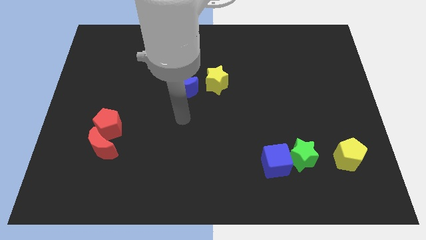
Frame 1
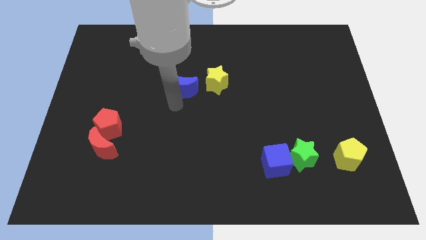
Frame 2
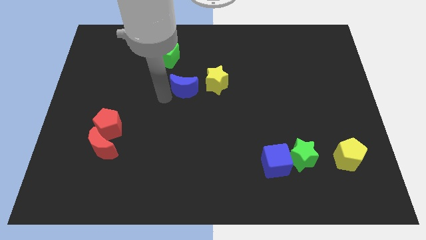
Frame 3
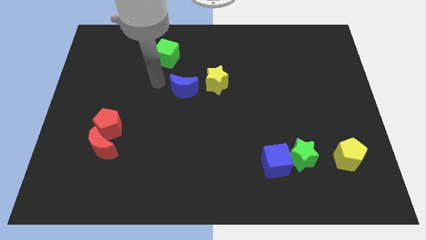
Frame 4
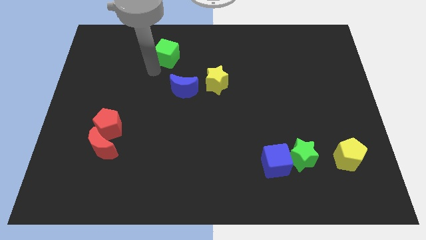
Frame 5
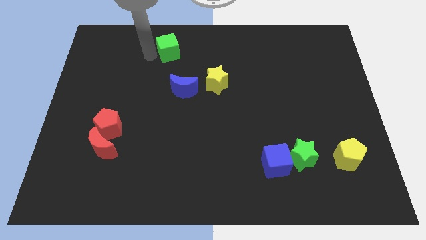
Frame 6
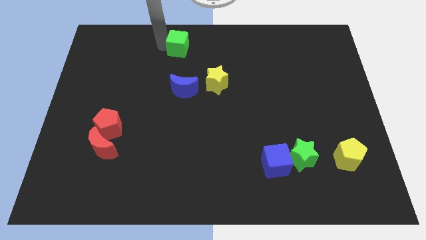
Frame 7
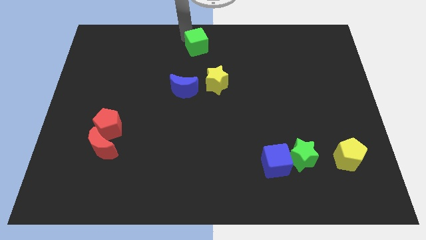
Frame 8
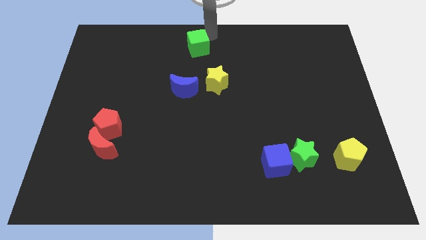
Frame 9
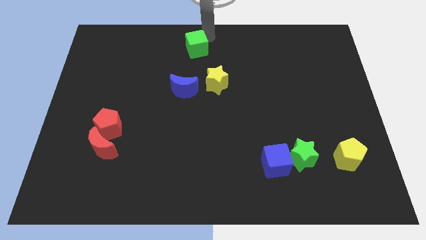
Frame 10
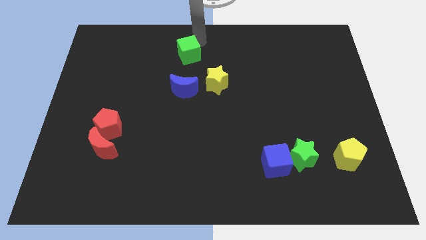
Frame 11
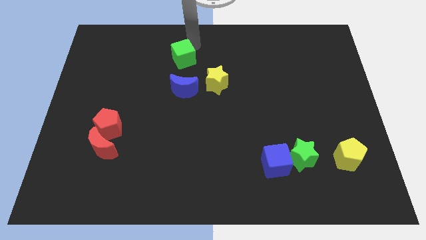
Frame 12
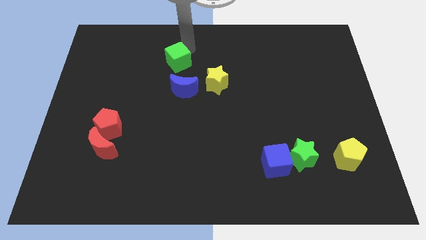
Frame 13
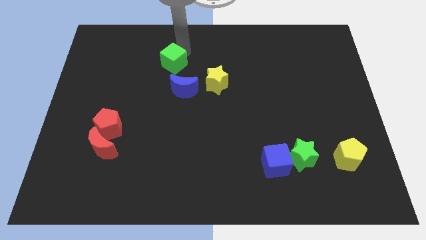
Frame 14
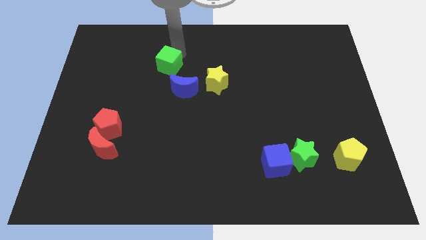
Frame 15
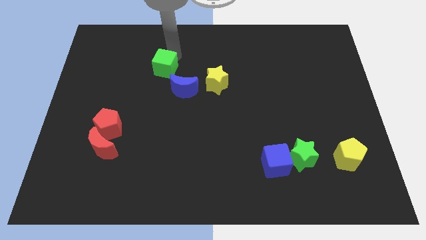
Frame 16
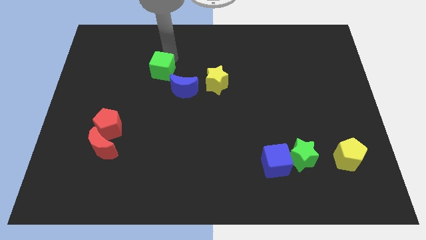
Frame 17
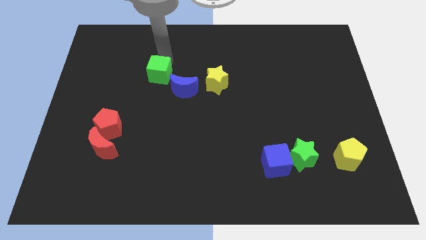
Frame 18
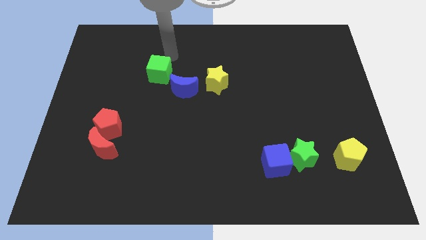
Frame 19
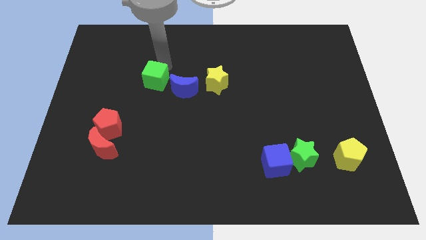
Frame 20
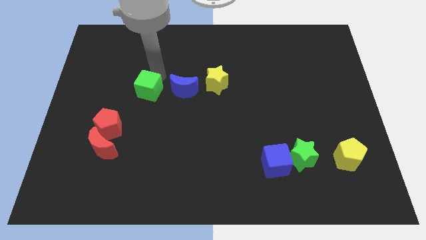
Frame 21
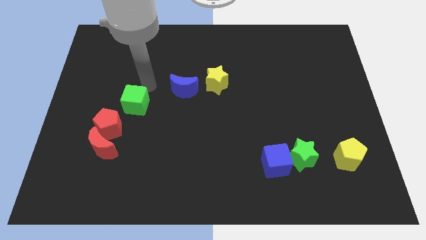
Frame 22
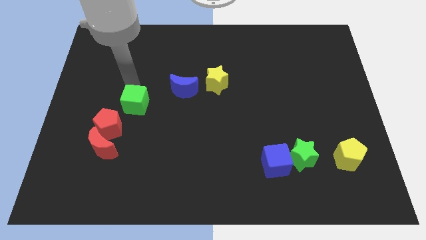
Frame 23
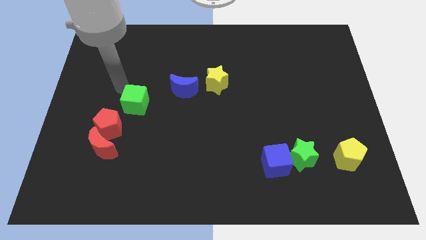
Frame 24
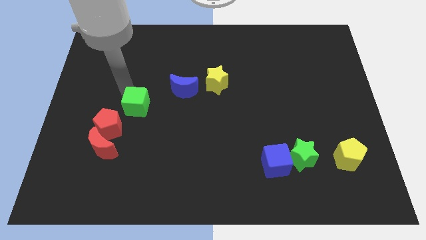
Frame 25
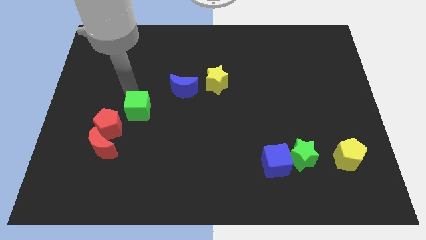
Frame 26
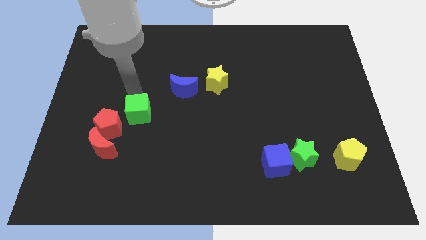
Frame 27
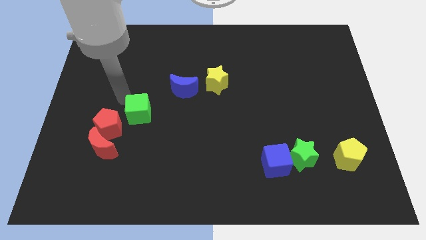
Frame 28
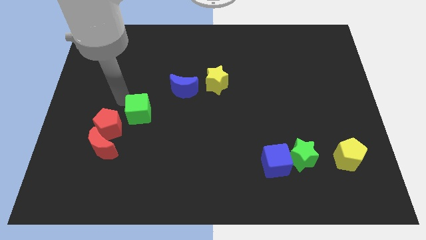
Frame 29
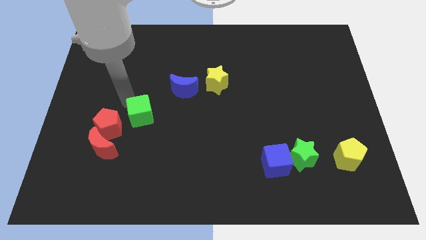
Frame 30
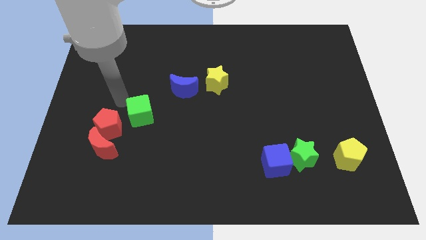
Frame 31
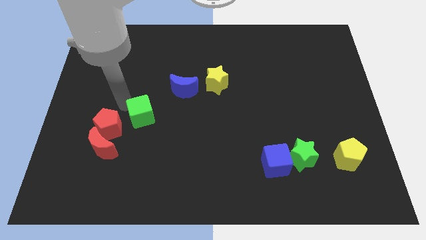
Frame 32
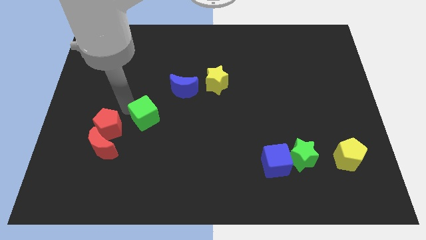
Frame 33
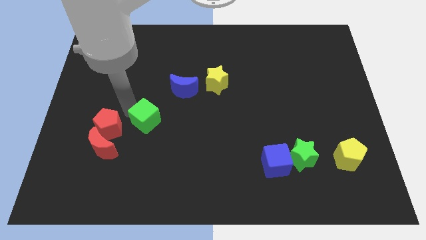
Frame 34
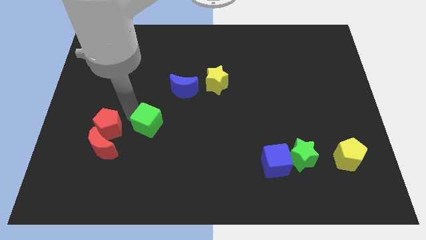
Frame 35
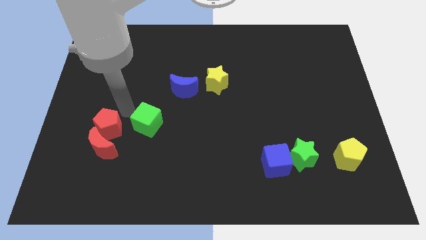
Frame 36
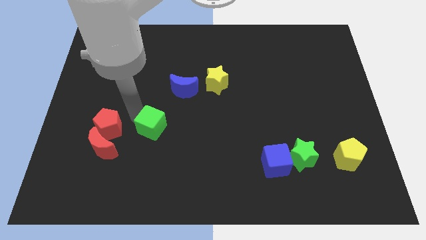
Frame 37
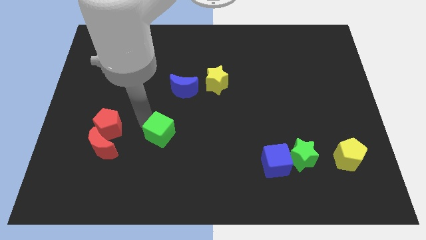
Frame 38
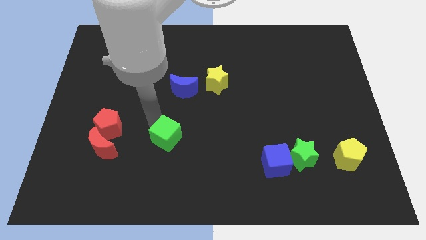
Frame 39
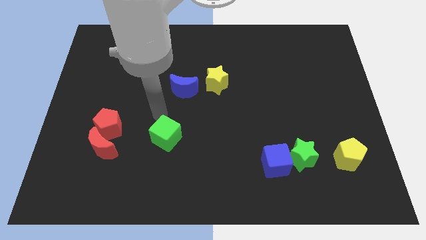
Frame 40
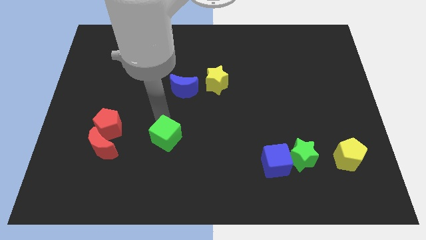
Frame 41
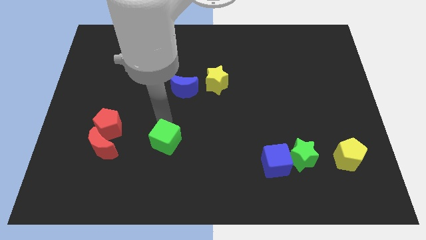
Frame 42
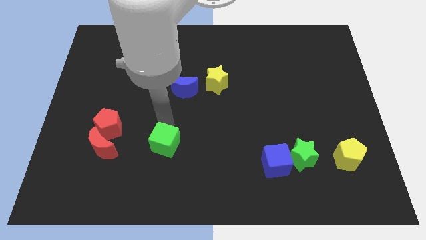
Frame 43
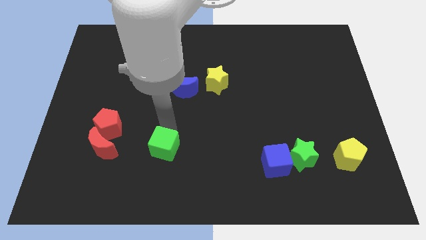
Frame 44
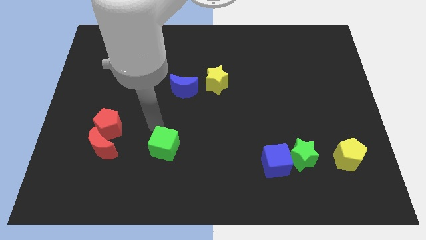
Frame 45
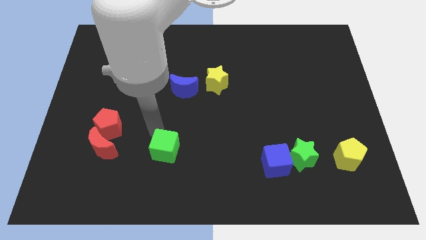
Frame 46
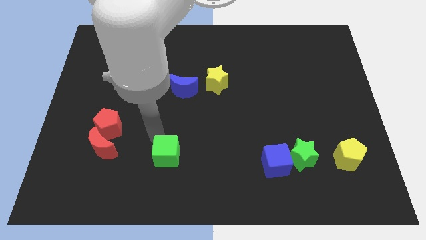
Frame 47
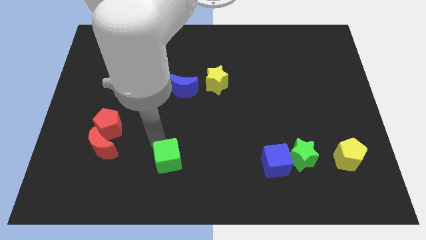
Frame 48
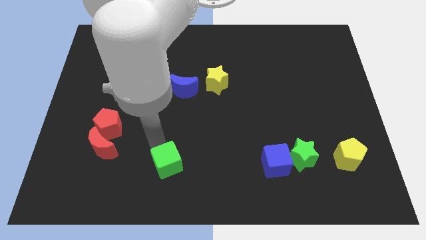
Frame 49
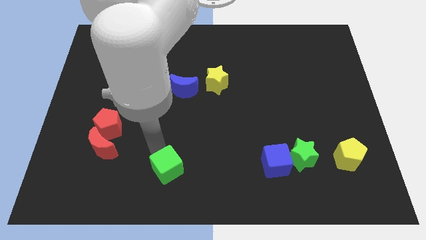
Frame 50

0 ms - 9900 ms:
slide the green cube to the bottom side

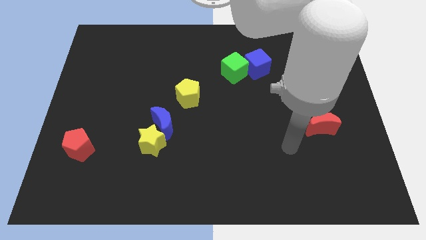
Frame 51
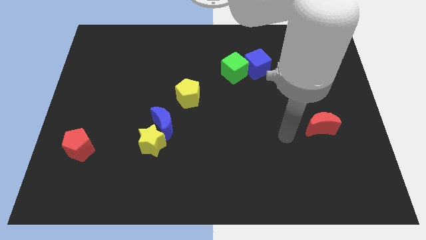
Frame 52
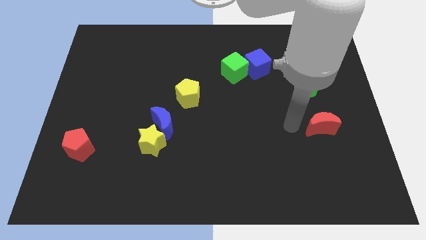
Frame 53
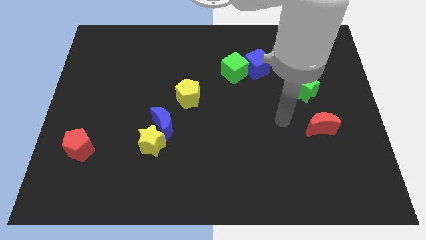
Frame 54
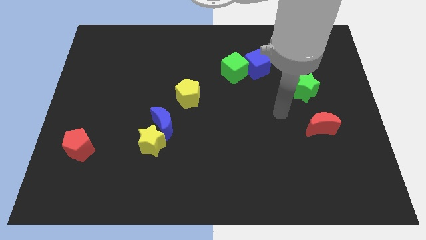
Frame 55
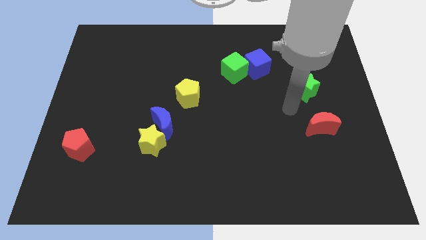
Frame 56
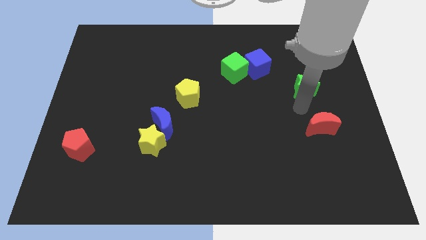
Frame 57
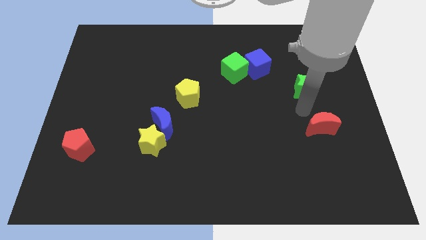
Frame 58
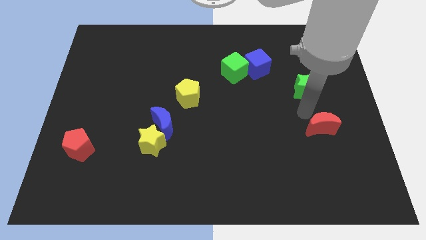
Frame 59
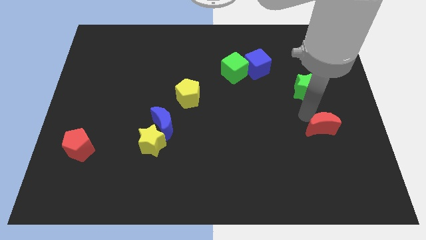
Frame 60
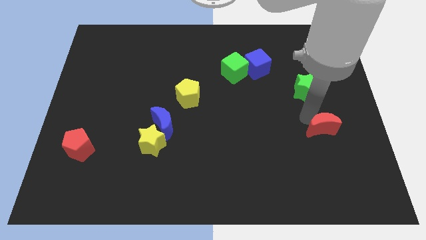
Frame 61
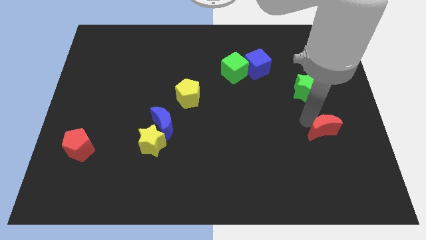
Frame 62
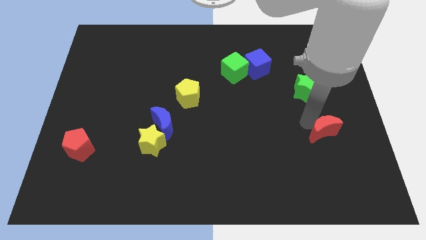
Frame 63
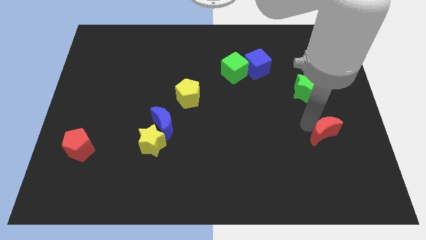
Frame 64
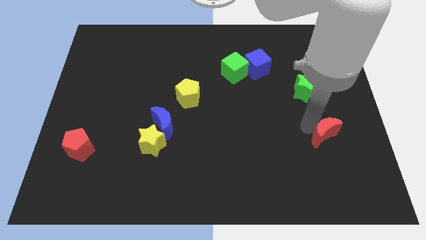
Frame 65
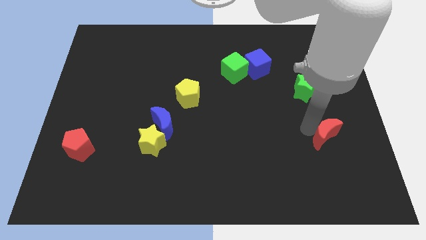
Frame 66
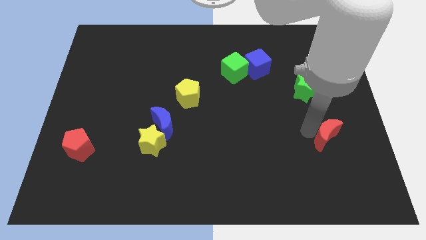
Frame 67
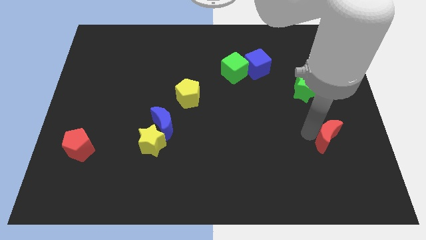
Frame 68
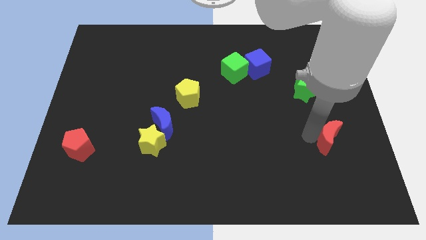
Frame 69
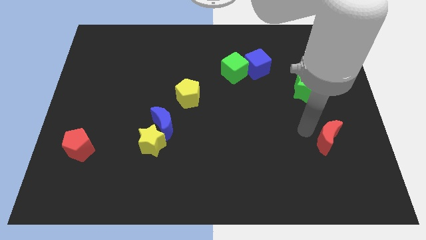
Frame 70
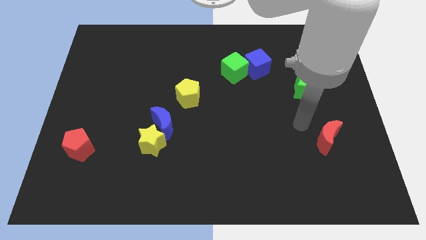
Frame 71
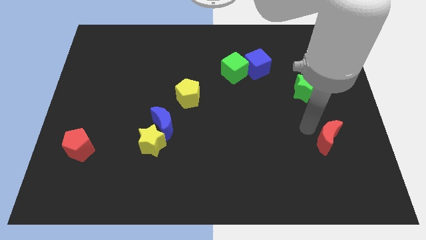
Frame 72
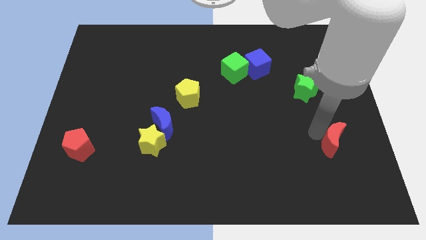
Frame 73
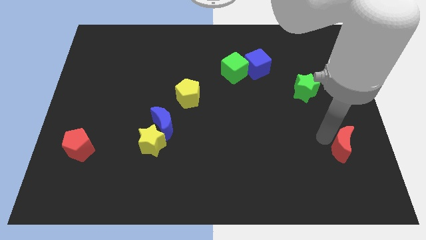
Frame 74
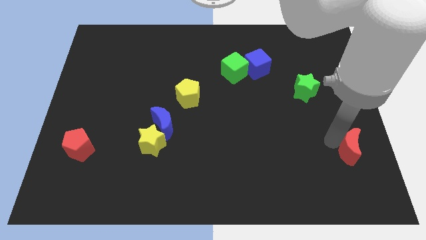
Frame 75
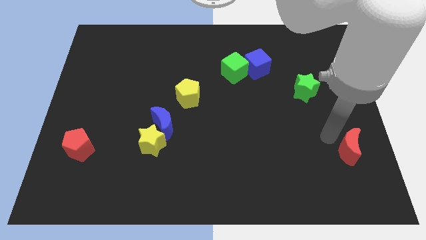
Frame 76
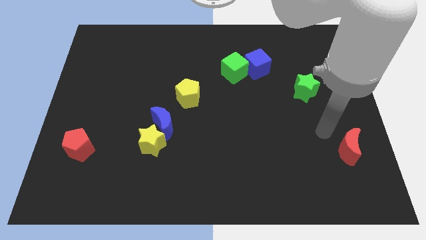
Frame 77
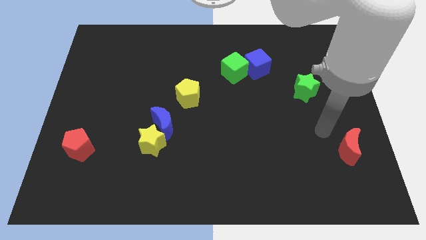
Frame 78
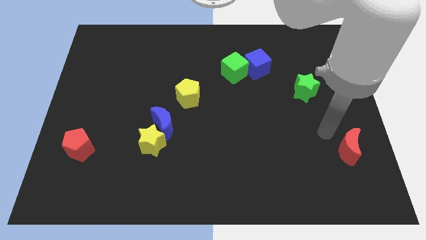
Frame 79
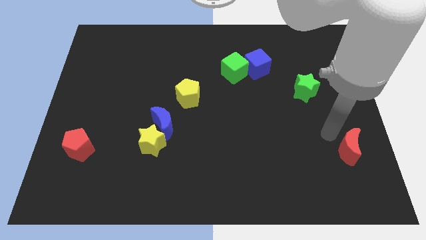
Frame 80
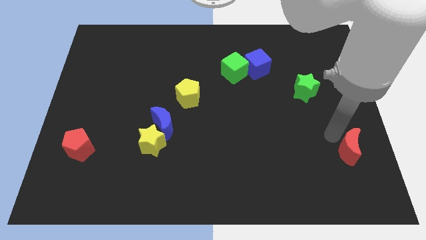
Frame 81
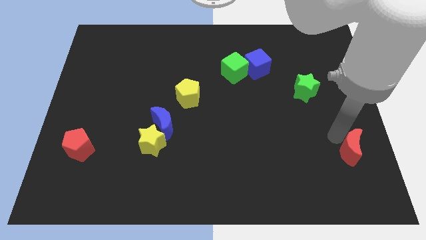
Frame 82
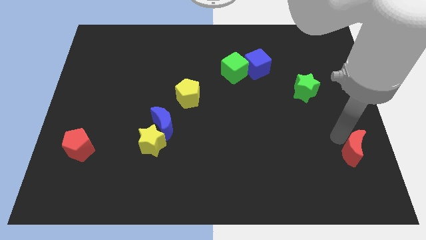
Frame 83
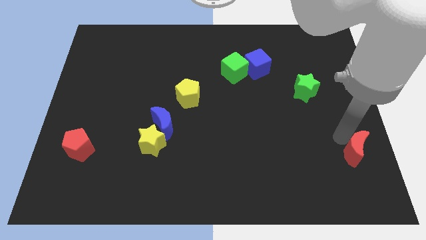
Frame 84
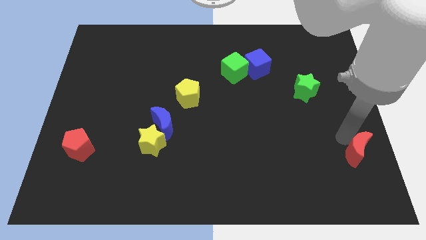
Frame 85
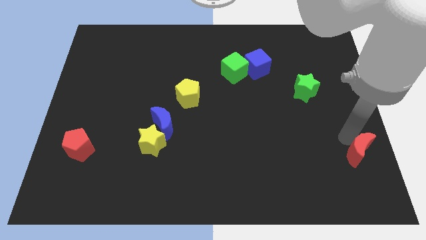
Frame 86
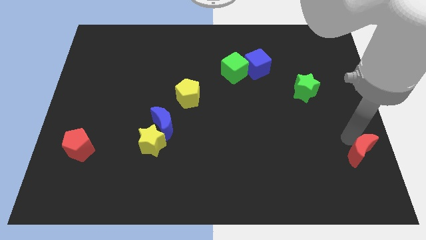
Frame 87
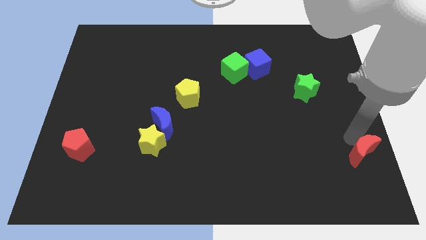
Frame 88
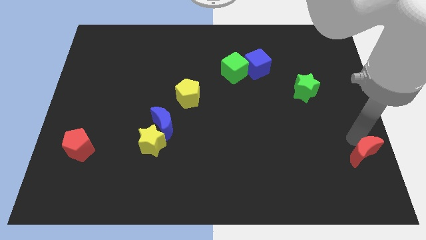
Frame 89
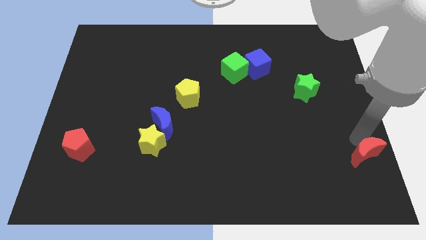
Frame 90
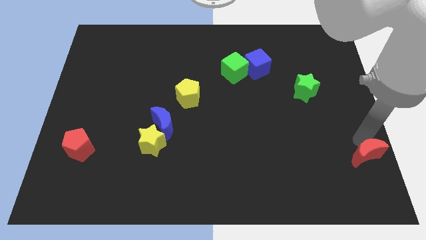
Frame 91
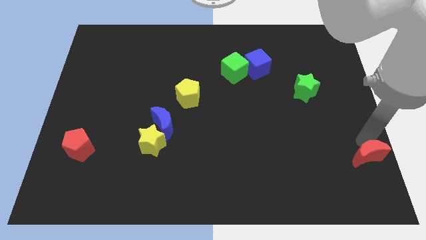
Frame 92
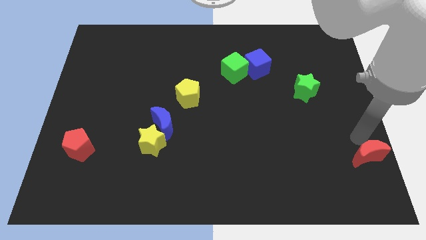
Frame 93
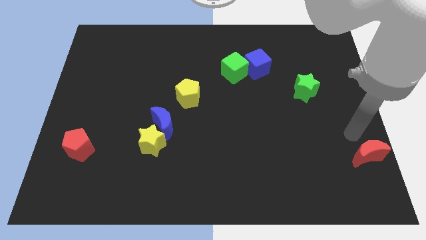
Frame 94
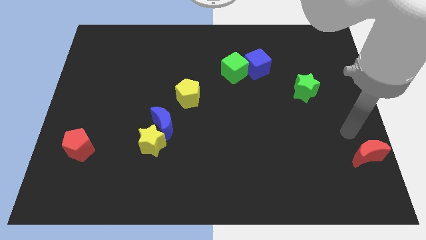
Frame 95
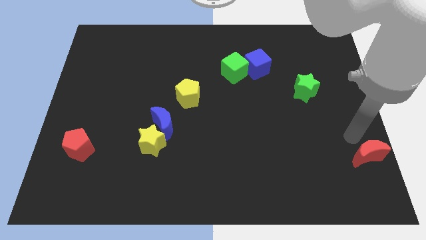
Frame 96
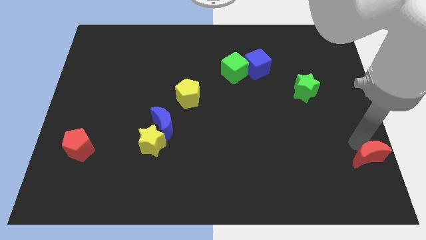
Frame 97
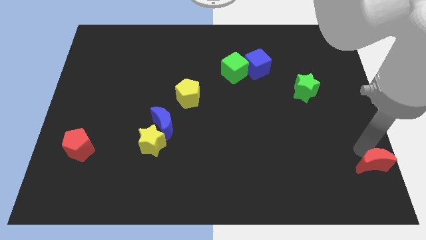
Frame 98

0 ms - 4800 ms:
slide the red moon to the bottom right
